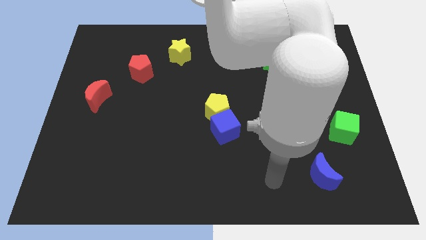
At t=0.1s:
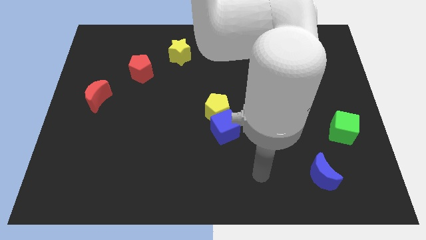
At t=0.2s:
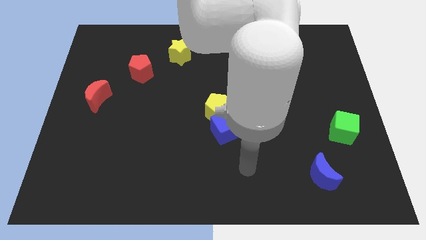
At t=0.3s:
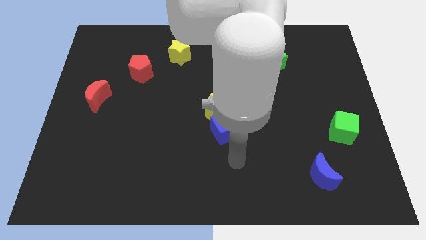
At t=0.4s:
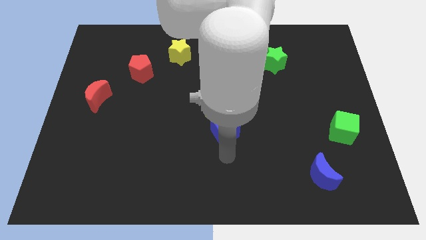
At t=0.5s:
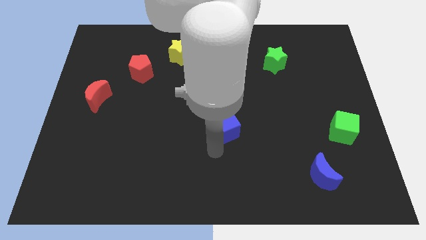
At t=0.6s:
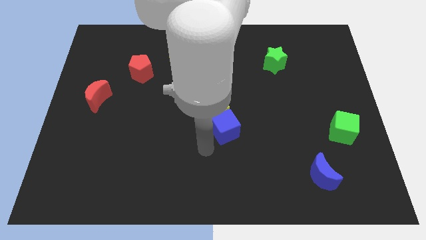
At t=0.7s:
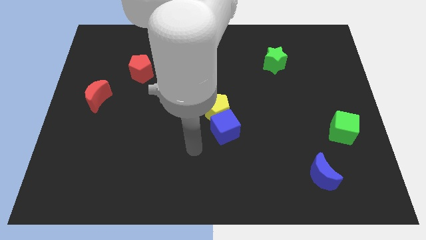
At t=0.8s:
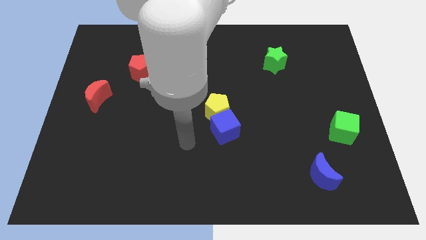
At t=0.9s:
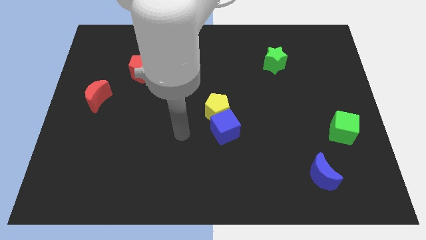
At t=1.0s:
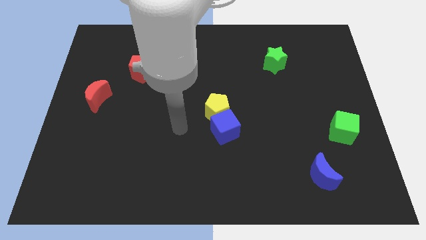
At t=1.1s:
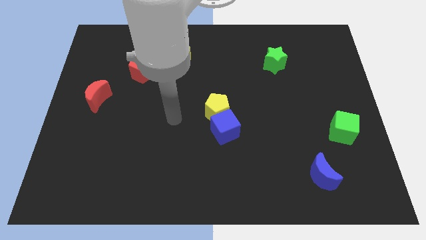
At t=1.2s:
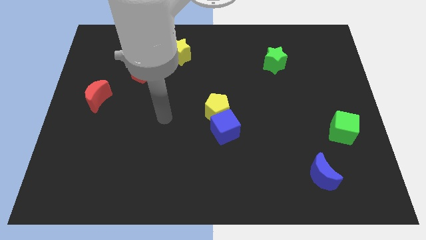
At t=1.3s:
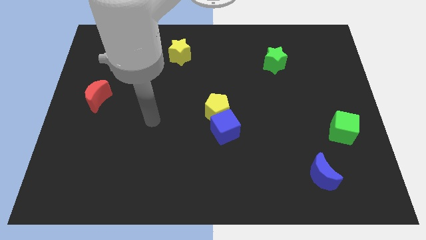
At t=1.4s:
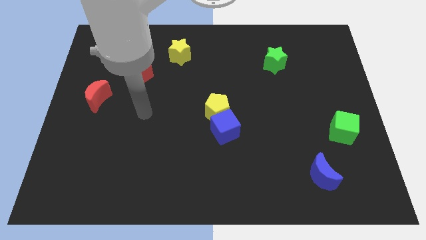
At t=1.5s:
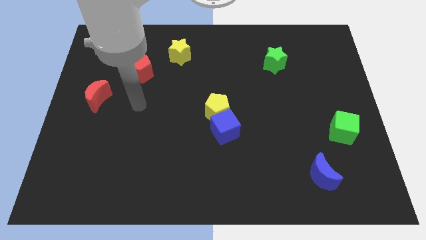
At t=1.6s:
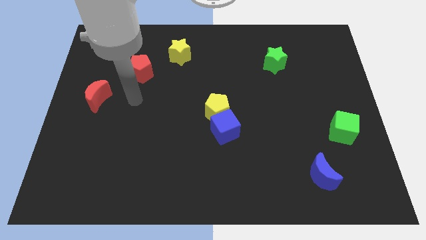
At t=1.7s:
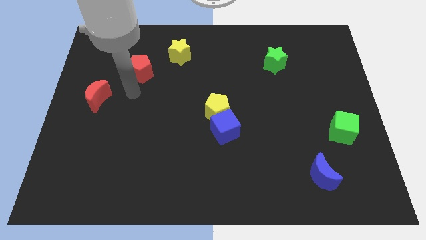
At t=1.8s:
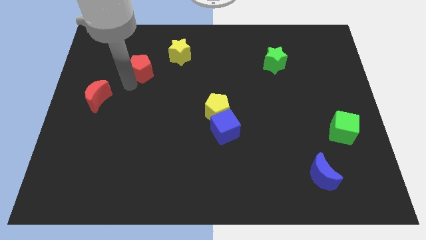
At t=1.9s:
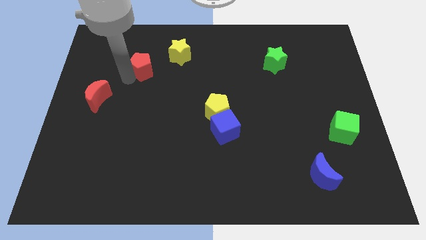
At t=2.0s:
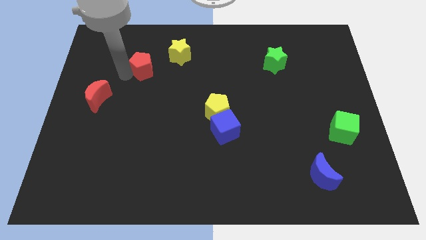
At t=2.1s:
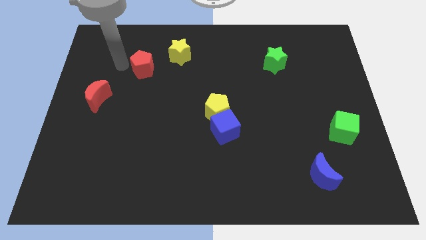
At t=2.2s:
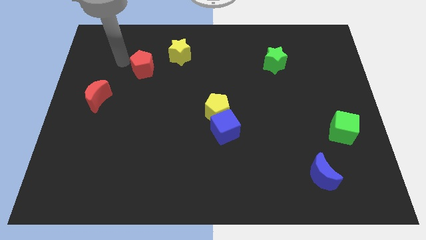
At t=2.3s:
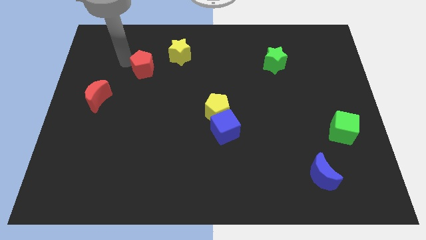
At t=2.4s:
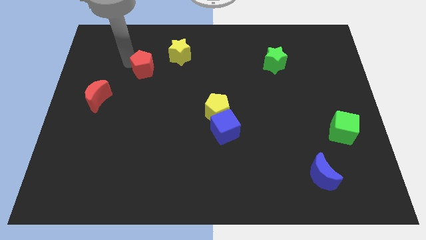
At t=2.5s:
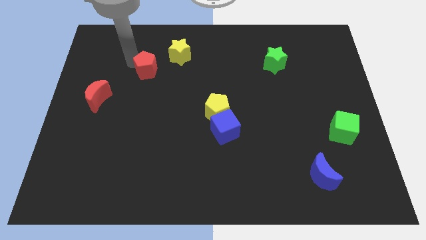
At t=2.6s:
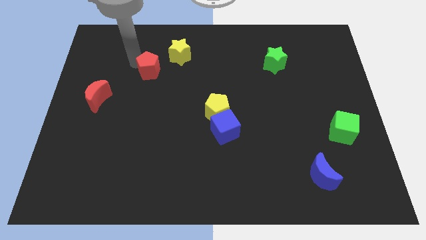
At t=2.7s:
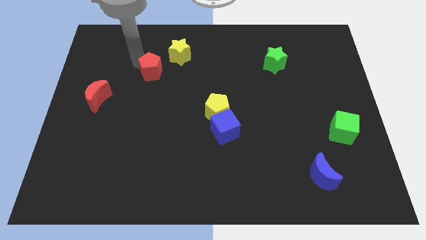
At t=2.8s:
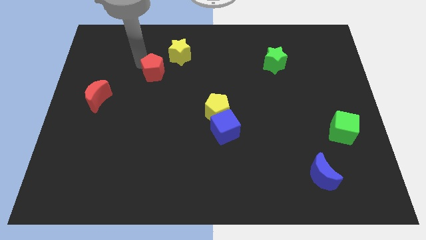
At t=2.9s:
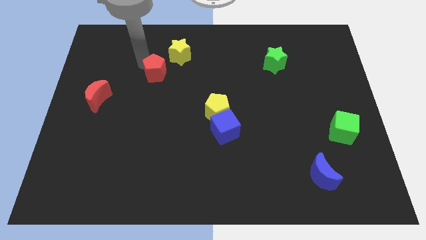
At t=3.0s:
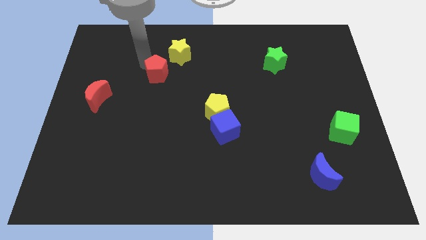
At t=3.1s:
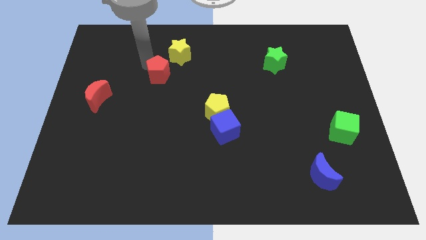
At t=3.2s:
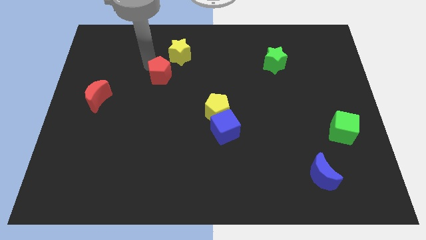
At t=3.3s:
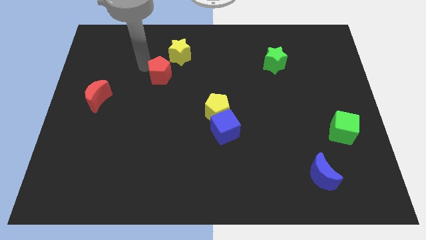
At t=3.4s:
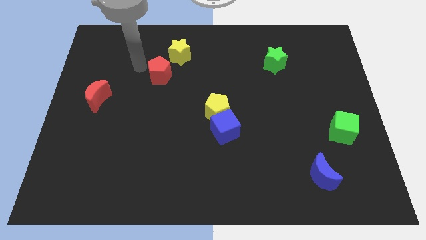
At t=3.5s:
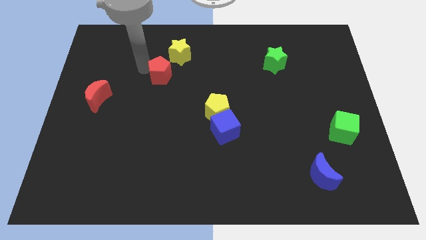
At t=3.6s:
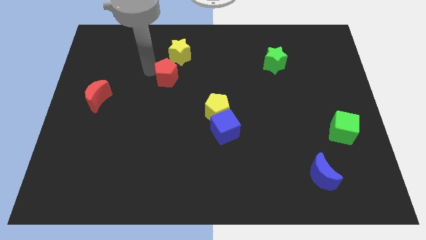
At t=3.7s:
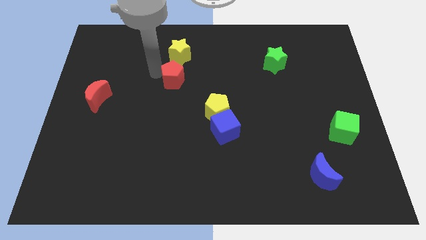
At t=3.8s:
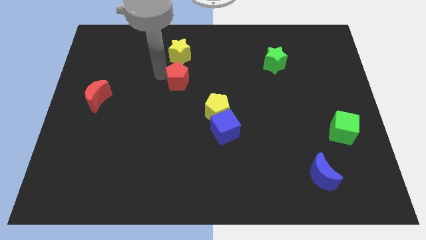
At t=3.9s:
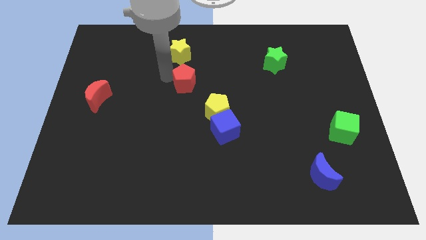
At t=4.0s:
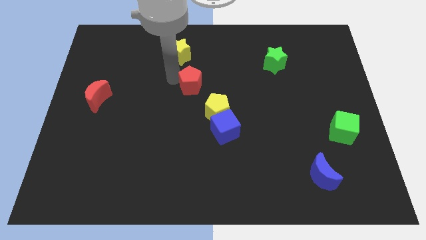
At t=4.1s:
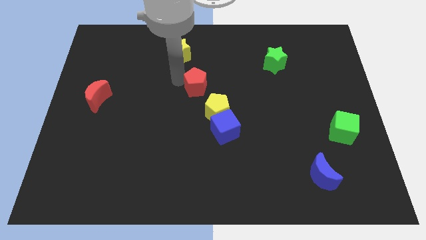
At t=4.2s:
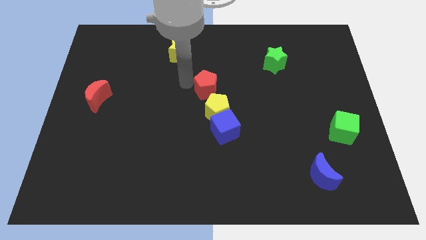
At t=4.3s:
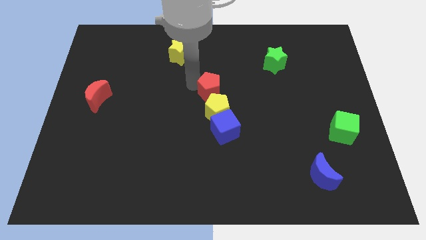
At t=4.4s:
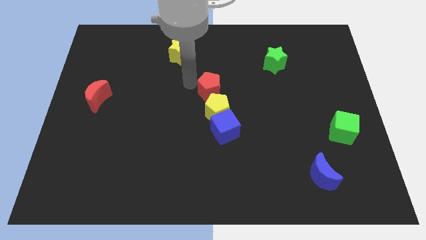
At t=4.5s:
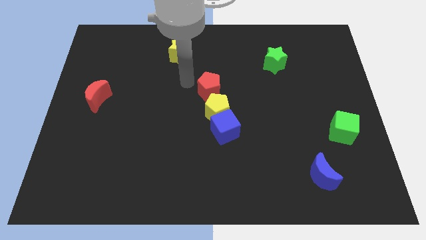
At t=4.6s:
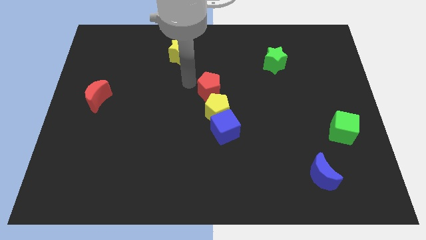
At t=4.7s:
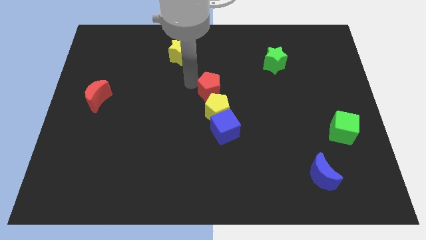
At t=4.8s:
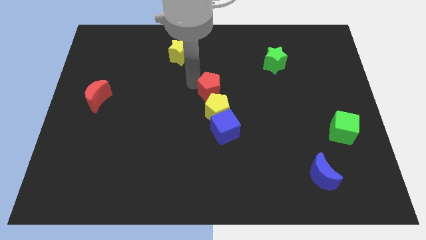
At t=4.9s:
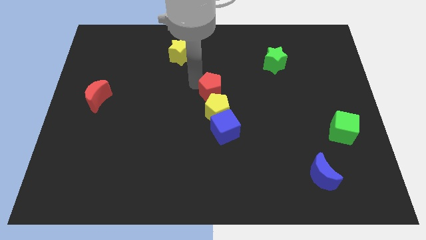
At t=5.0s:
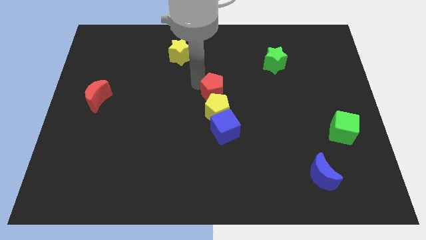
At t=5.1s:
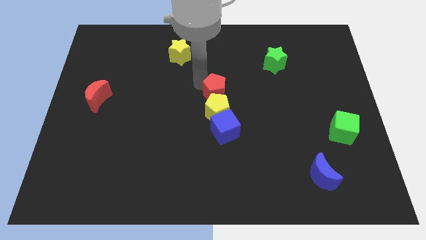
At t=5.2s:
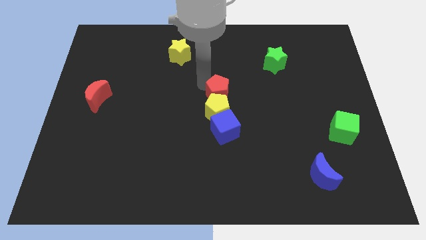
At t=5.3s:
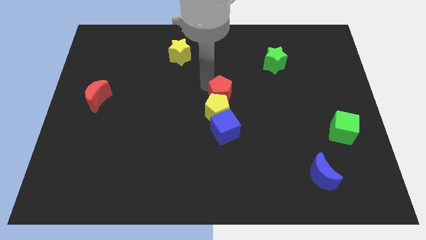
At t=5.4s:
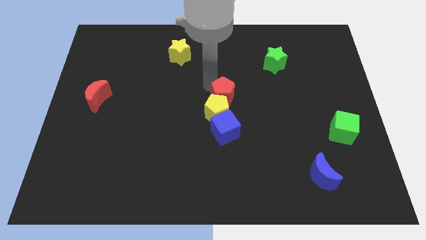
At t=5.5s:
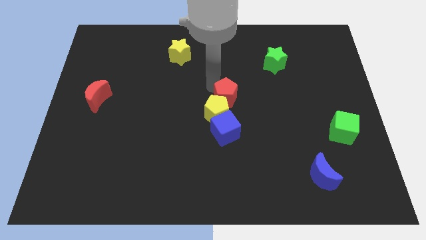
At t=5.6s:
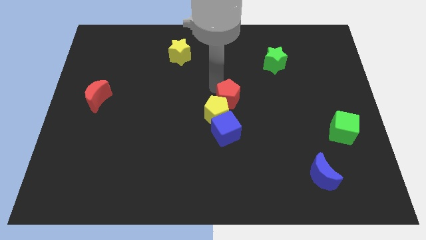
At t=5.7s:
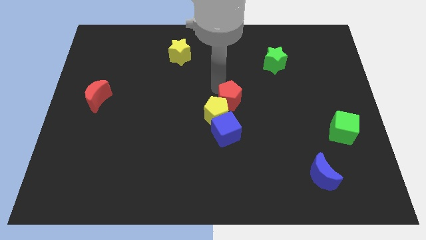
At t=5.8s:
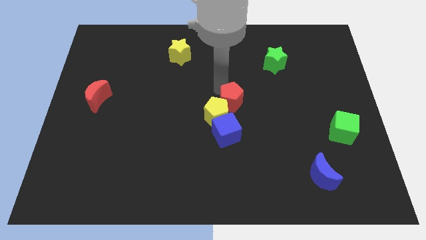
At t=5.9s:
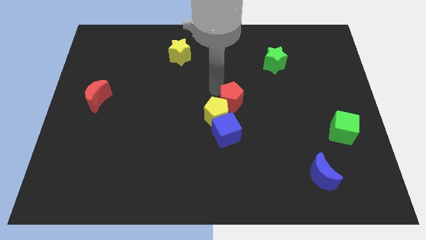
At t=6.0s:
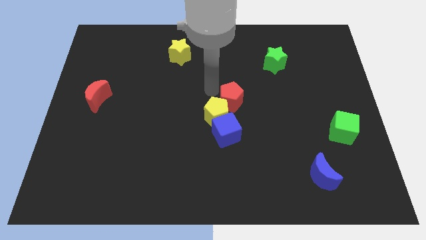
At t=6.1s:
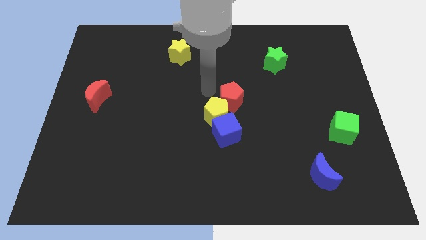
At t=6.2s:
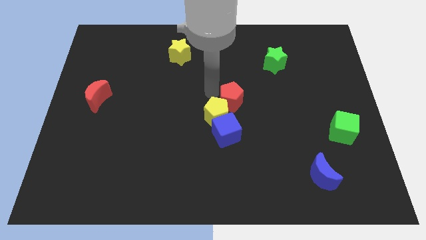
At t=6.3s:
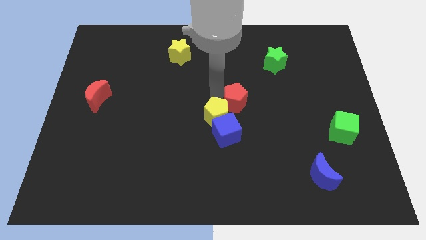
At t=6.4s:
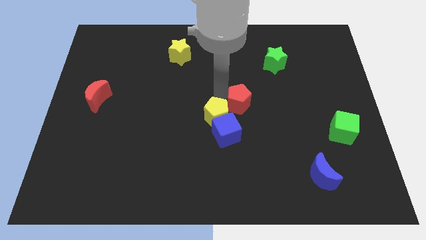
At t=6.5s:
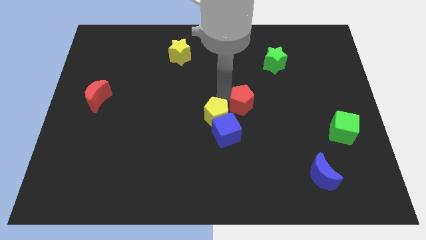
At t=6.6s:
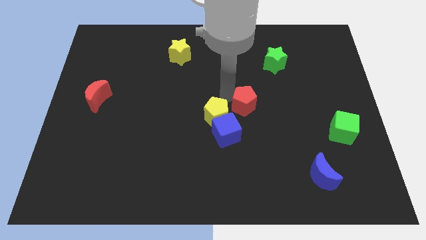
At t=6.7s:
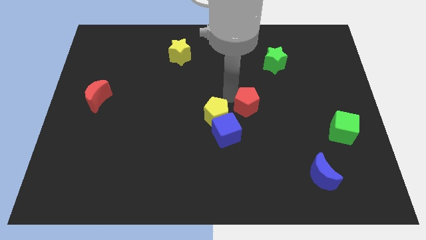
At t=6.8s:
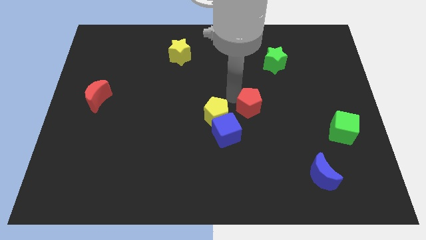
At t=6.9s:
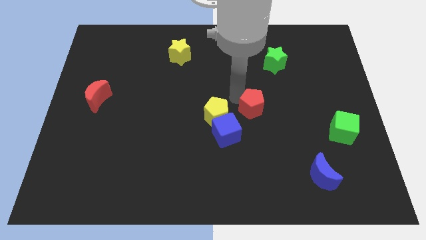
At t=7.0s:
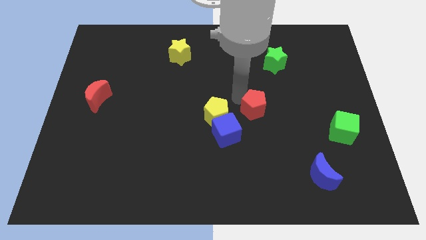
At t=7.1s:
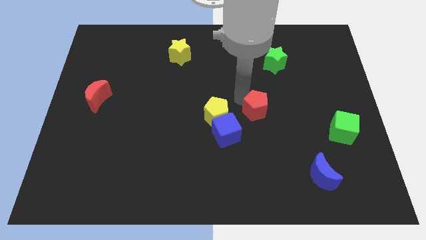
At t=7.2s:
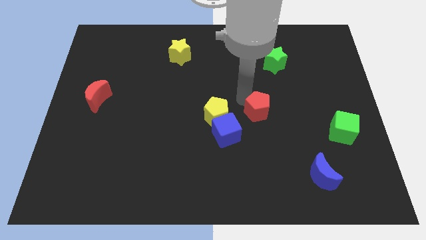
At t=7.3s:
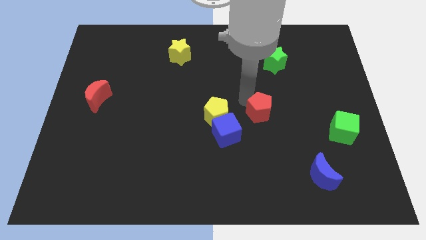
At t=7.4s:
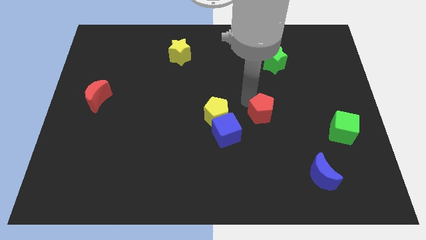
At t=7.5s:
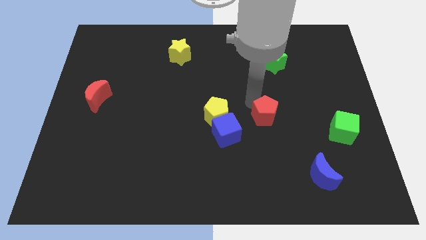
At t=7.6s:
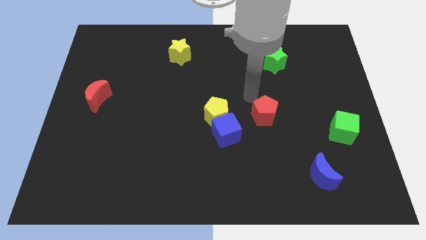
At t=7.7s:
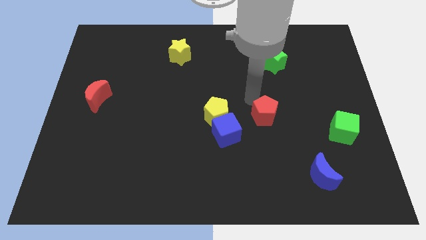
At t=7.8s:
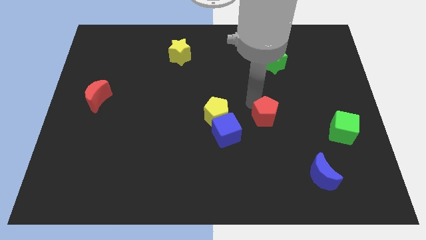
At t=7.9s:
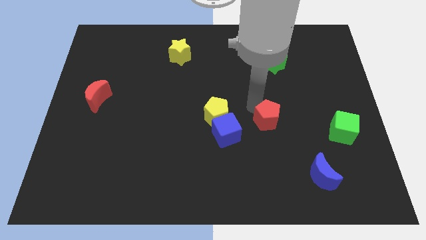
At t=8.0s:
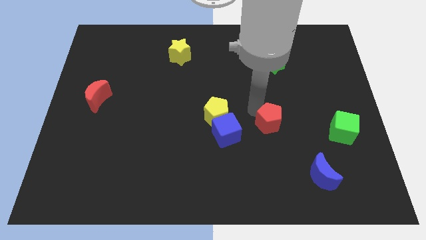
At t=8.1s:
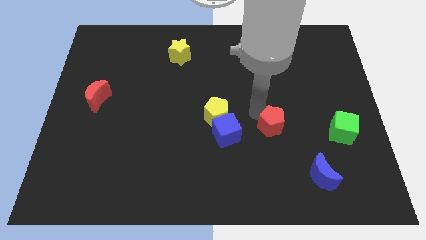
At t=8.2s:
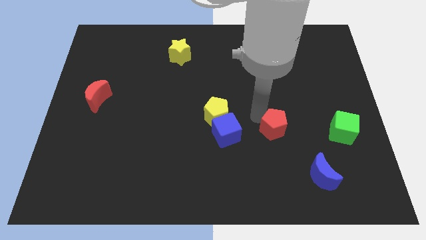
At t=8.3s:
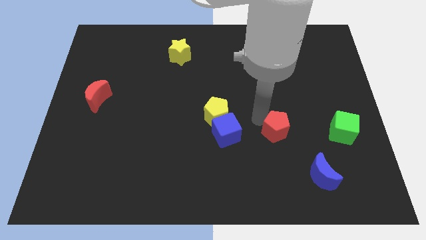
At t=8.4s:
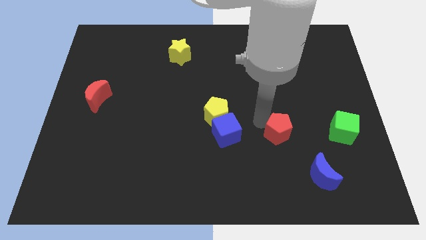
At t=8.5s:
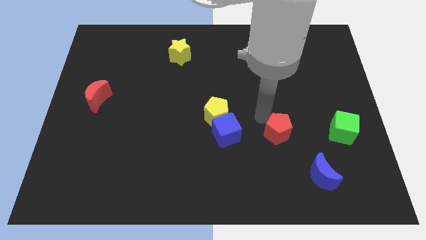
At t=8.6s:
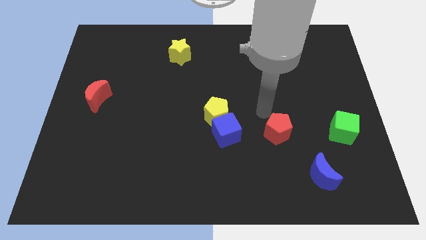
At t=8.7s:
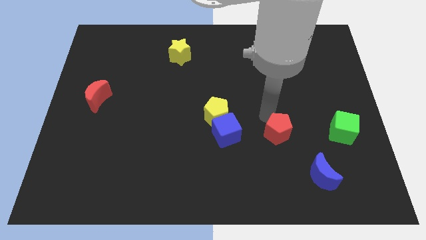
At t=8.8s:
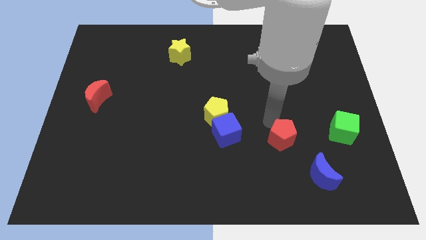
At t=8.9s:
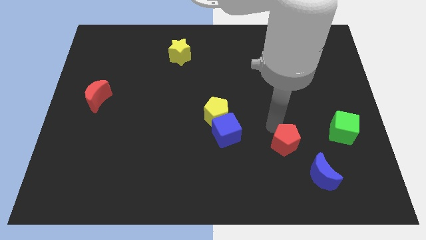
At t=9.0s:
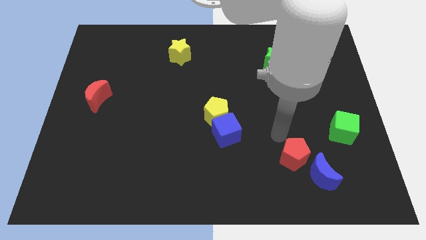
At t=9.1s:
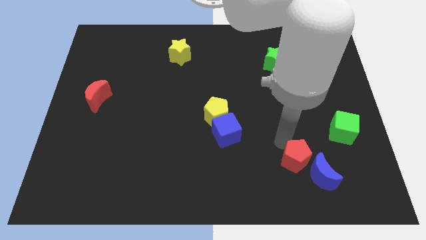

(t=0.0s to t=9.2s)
move the red pentagon close to the blue moon
